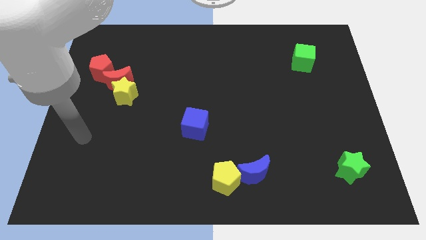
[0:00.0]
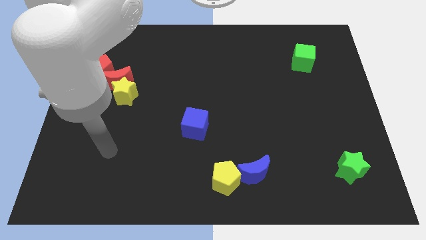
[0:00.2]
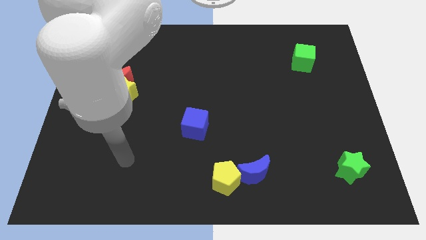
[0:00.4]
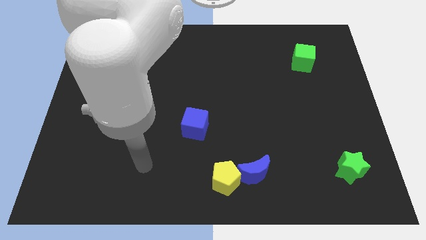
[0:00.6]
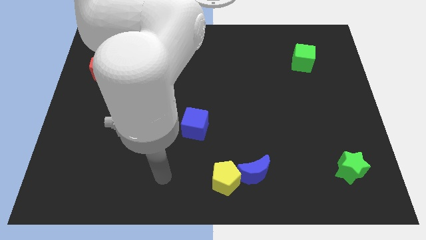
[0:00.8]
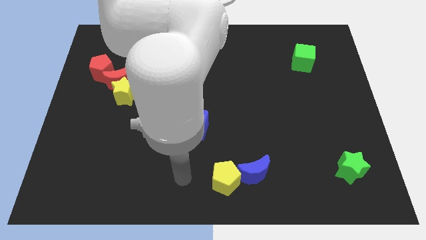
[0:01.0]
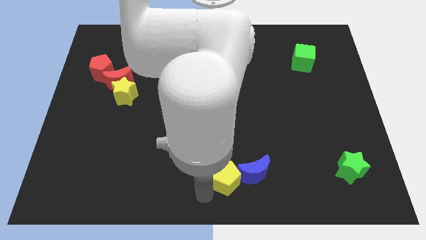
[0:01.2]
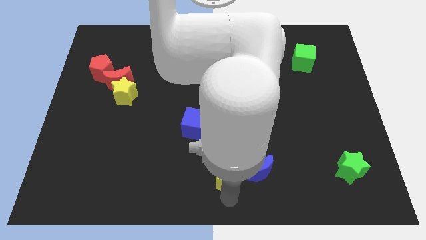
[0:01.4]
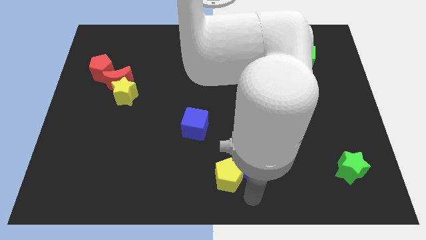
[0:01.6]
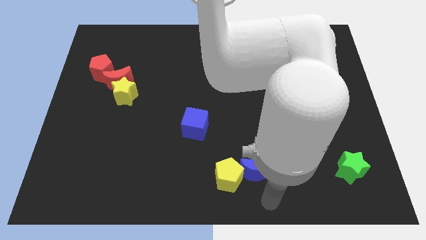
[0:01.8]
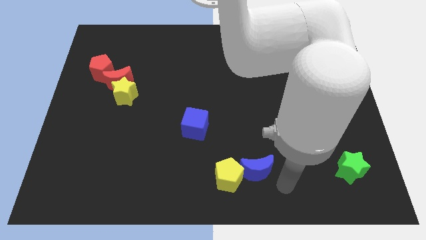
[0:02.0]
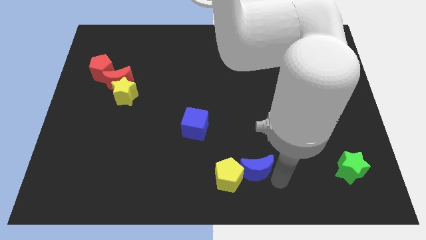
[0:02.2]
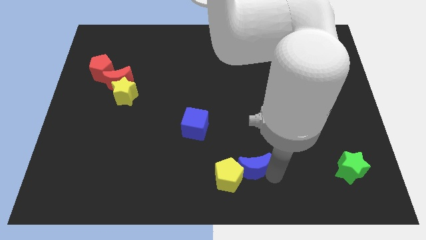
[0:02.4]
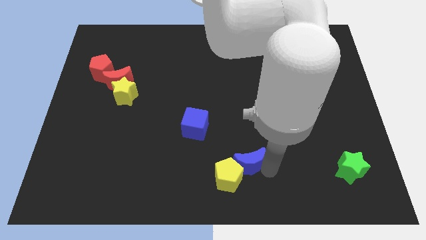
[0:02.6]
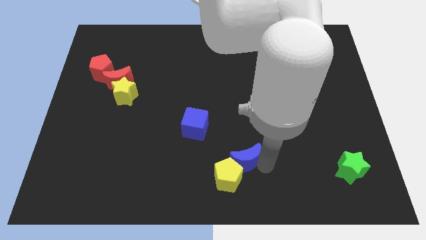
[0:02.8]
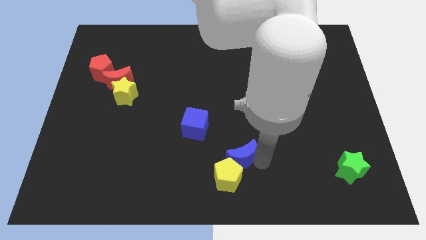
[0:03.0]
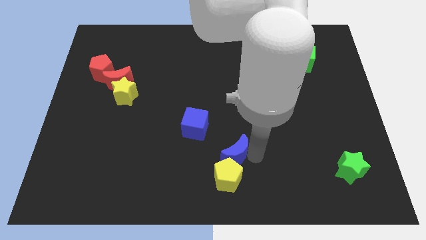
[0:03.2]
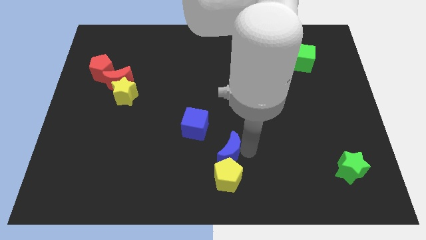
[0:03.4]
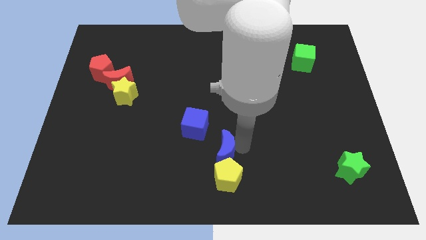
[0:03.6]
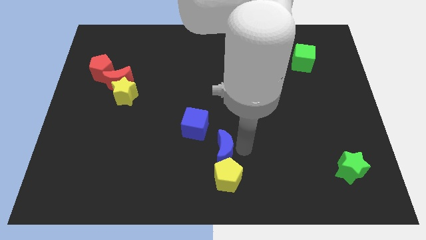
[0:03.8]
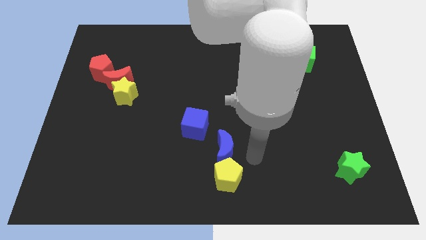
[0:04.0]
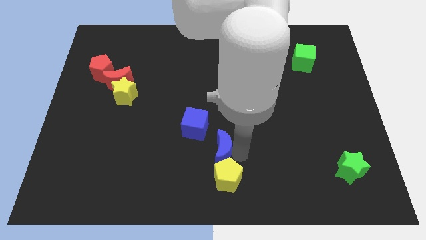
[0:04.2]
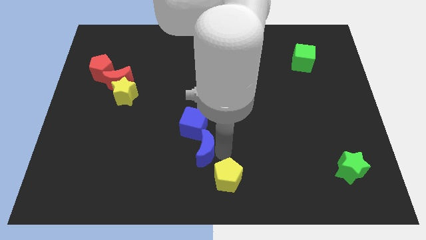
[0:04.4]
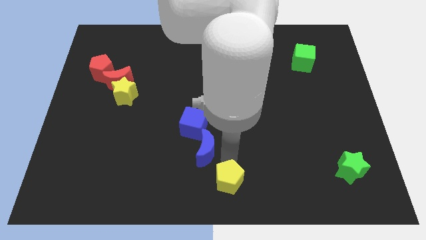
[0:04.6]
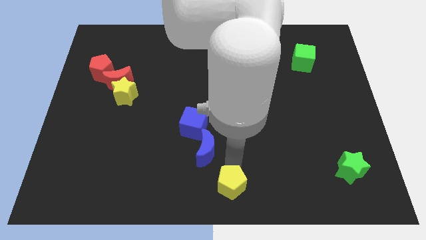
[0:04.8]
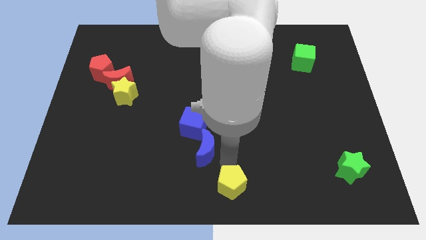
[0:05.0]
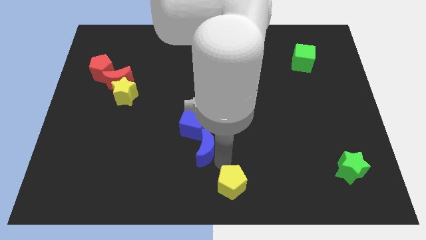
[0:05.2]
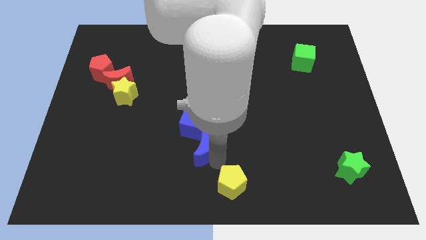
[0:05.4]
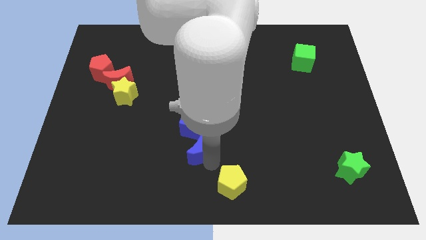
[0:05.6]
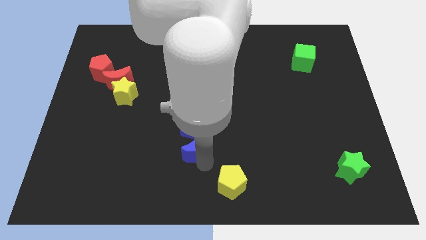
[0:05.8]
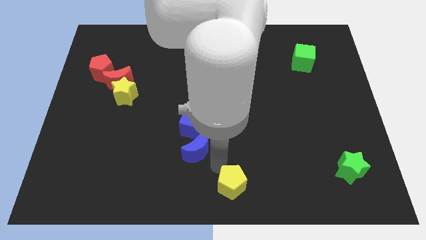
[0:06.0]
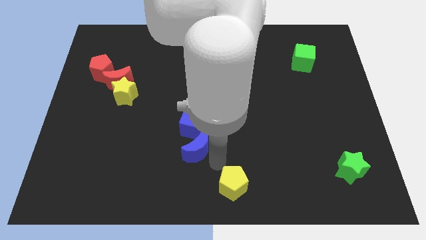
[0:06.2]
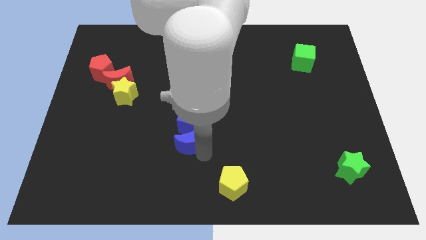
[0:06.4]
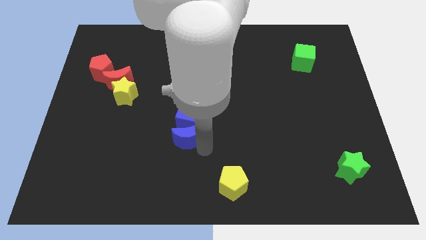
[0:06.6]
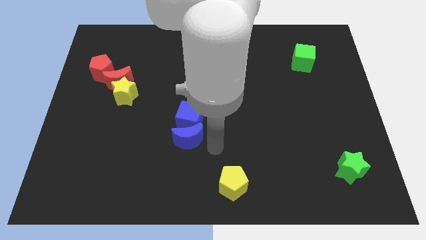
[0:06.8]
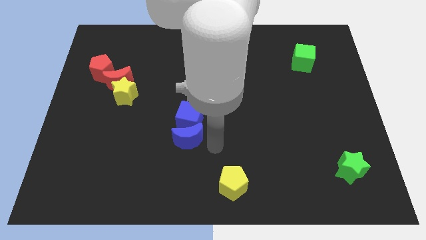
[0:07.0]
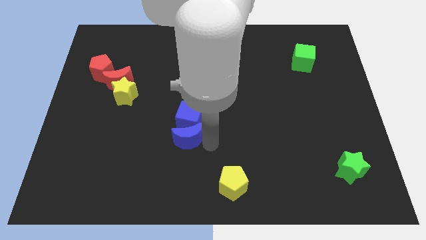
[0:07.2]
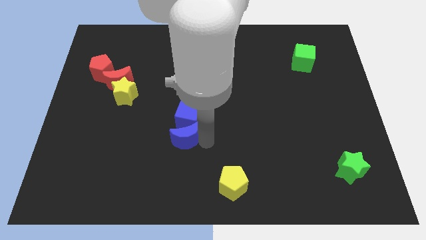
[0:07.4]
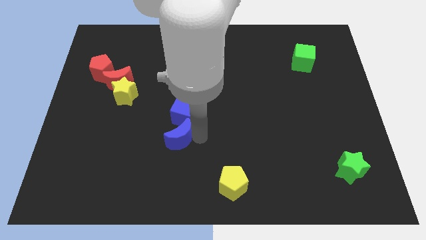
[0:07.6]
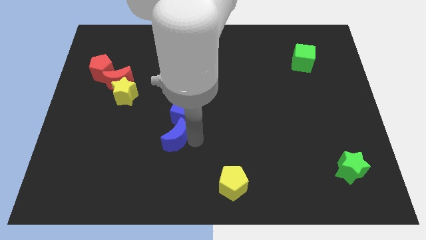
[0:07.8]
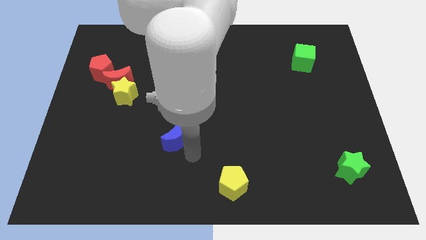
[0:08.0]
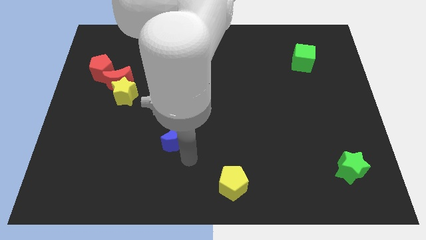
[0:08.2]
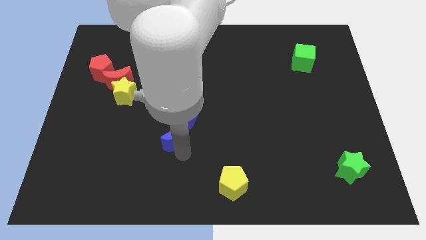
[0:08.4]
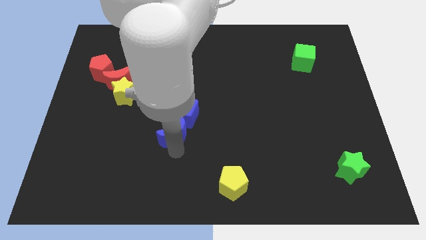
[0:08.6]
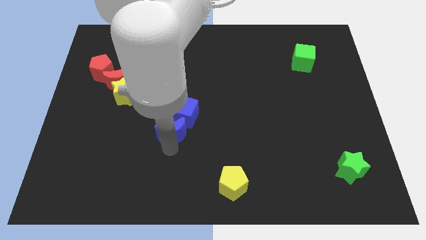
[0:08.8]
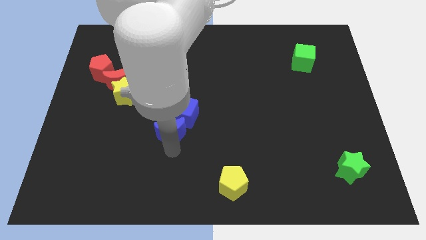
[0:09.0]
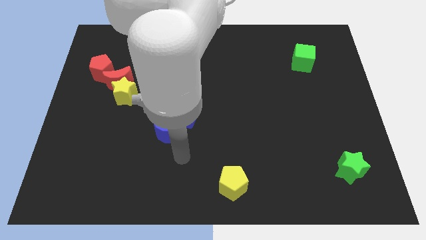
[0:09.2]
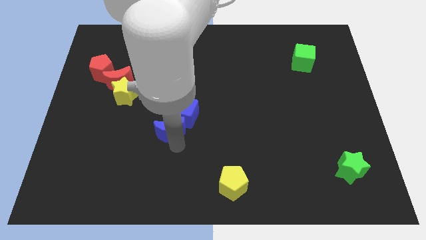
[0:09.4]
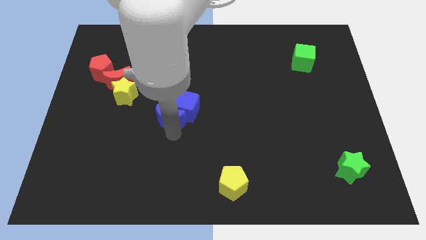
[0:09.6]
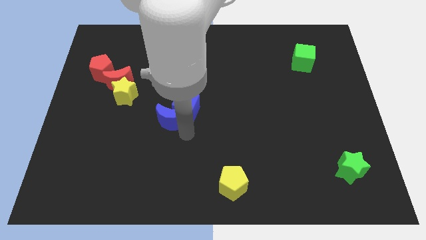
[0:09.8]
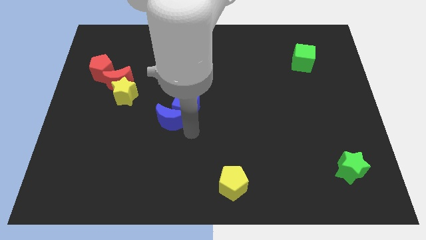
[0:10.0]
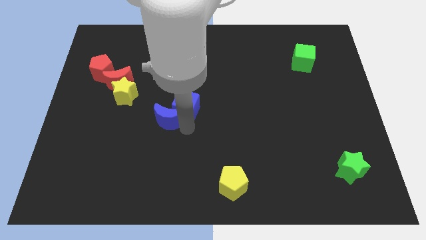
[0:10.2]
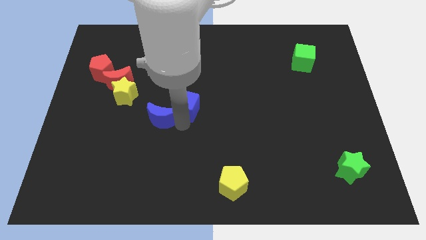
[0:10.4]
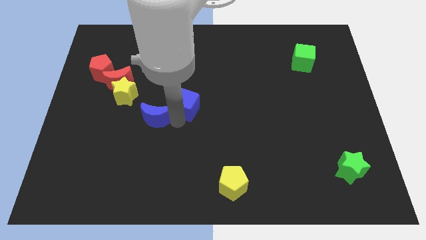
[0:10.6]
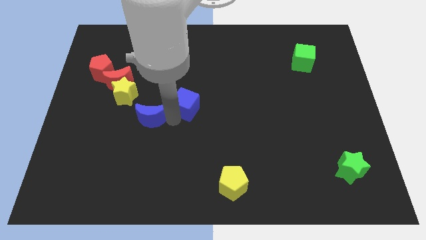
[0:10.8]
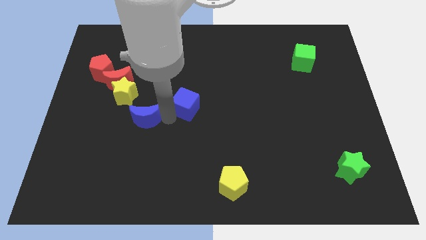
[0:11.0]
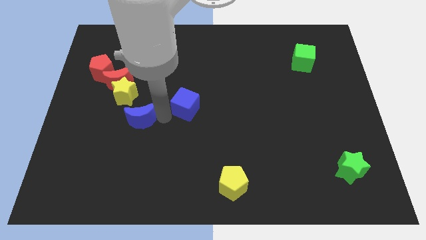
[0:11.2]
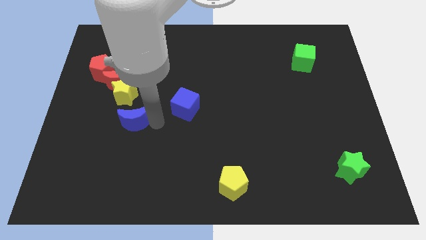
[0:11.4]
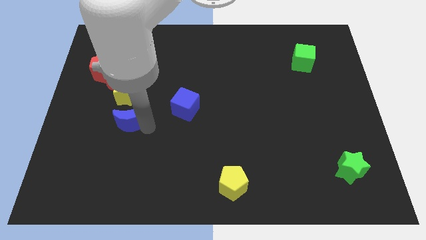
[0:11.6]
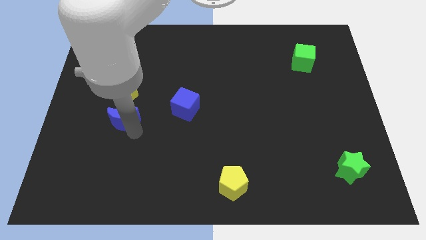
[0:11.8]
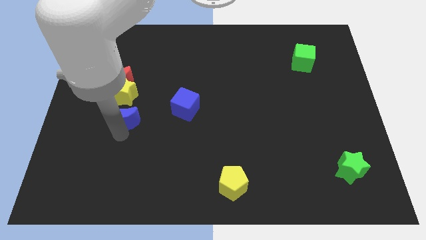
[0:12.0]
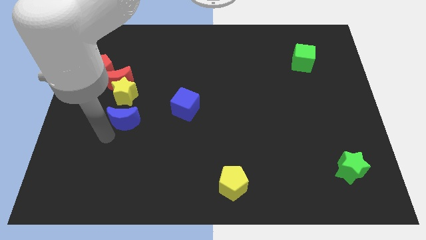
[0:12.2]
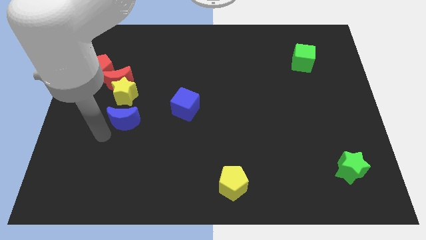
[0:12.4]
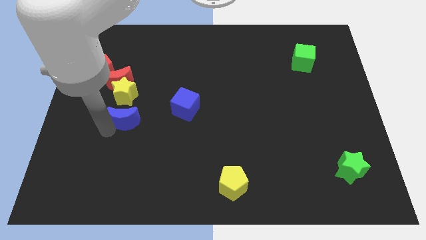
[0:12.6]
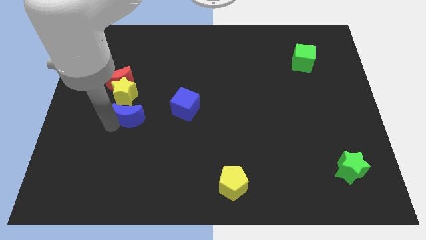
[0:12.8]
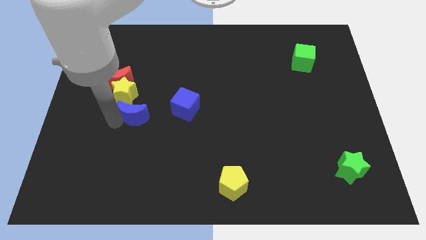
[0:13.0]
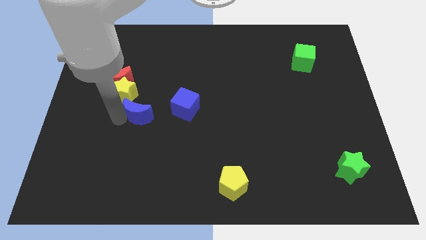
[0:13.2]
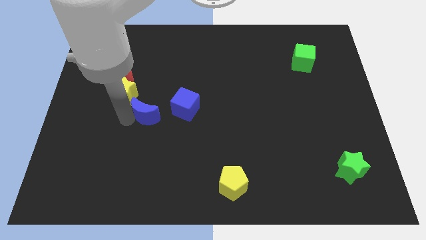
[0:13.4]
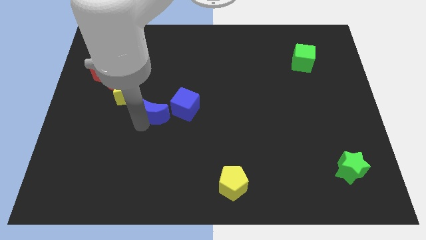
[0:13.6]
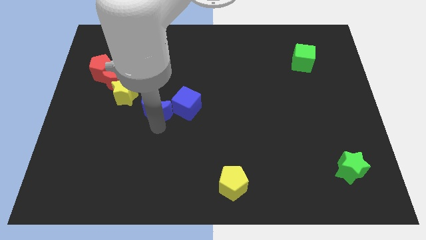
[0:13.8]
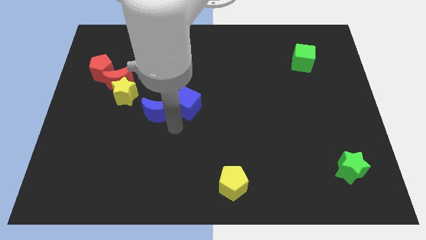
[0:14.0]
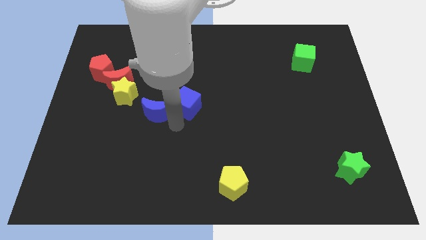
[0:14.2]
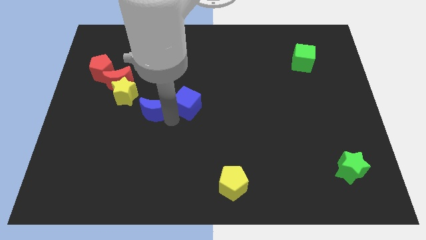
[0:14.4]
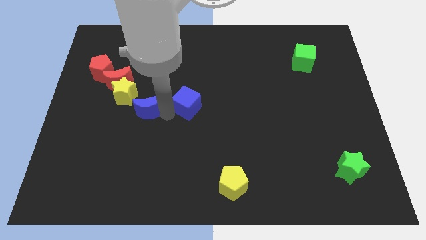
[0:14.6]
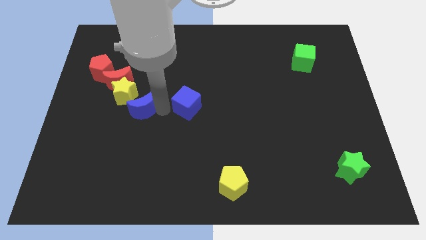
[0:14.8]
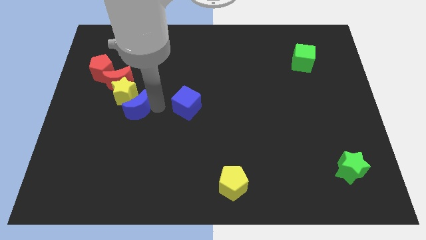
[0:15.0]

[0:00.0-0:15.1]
slide the blue moon next to the yellow star

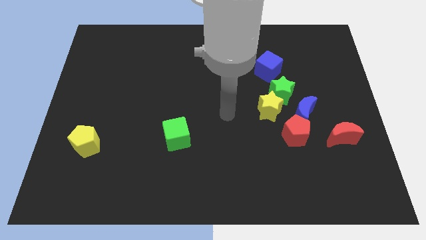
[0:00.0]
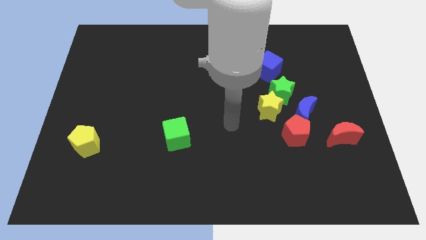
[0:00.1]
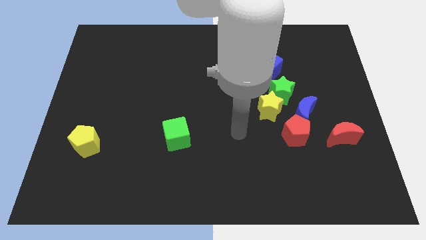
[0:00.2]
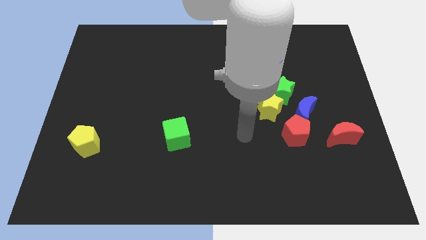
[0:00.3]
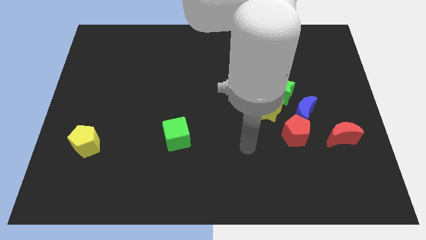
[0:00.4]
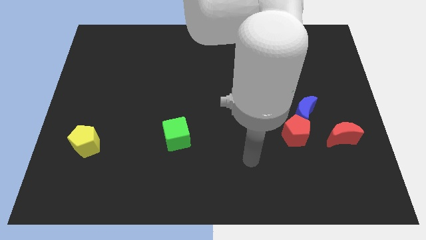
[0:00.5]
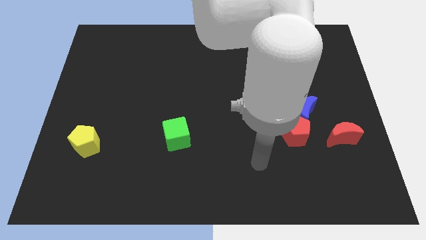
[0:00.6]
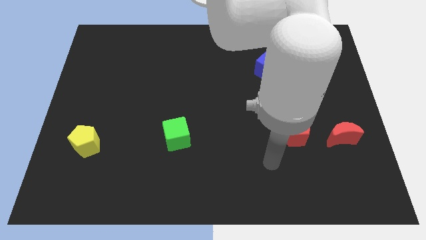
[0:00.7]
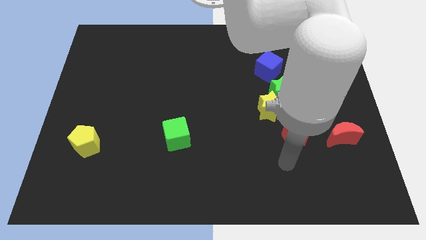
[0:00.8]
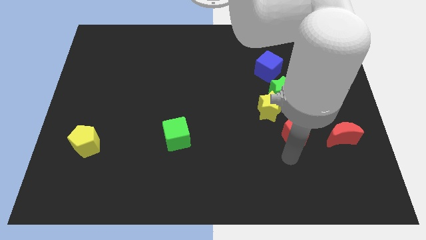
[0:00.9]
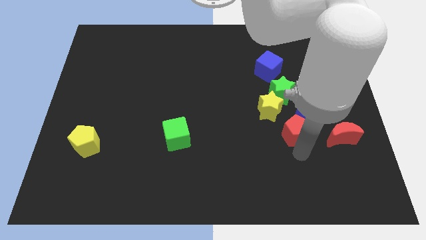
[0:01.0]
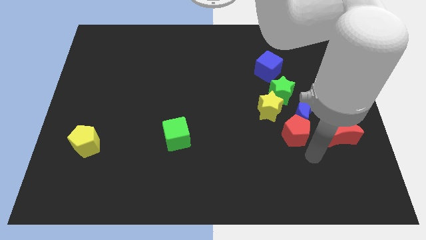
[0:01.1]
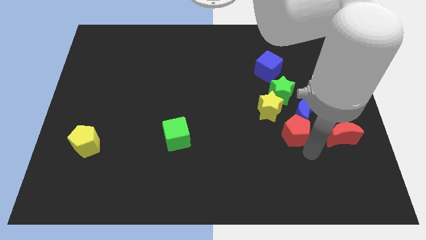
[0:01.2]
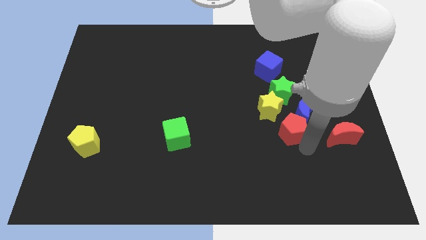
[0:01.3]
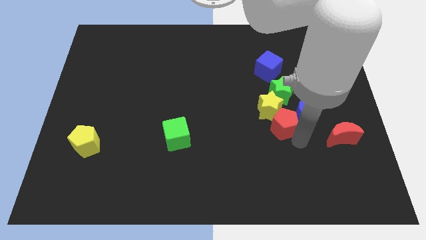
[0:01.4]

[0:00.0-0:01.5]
slide the red pentagon next to the yellow star
